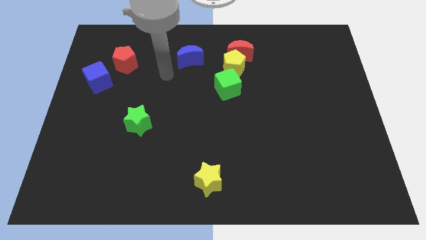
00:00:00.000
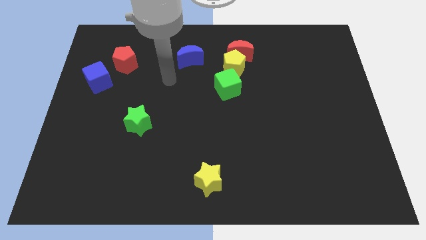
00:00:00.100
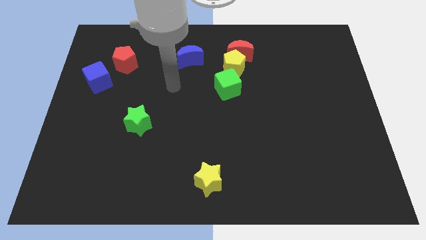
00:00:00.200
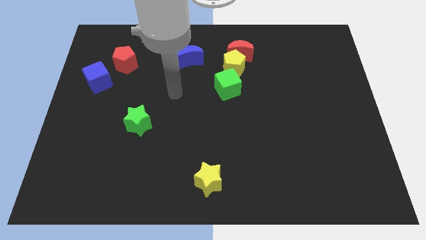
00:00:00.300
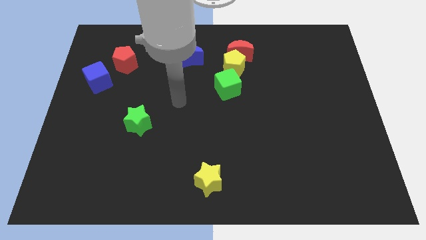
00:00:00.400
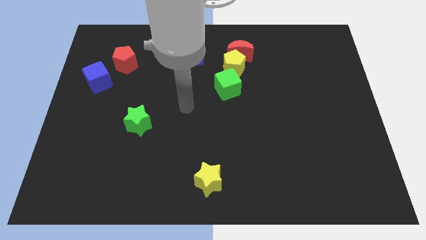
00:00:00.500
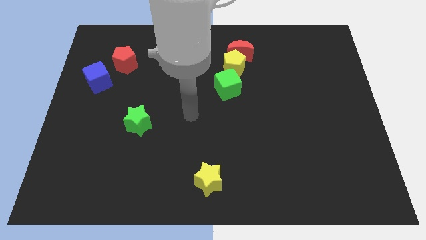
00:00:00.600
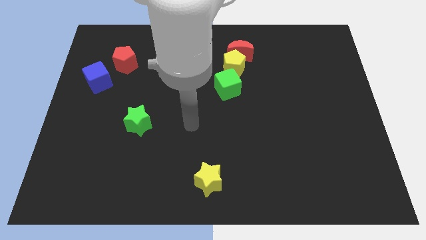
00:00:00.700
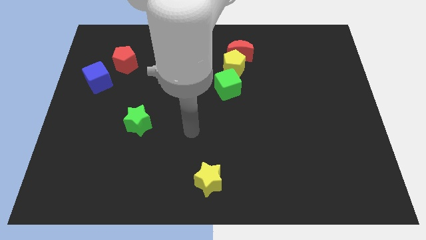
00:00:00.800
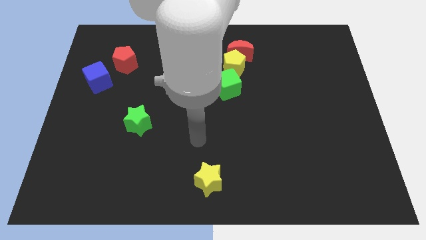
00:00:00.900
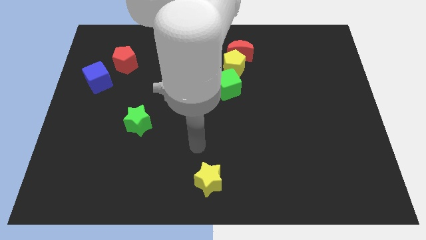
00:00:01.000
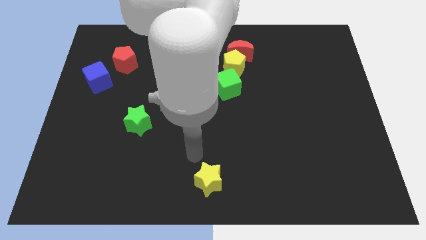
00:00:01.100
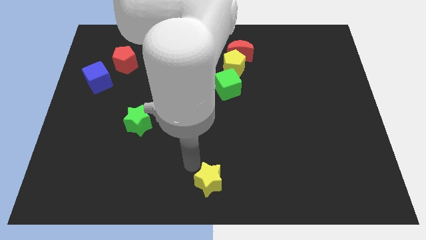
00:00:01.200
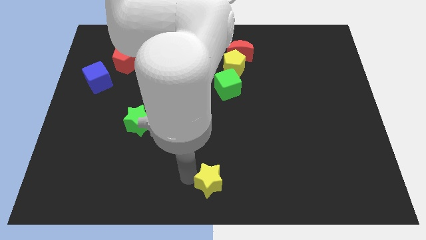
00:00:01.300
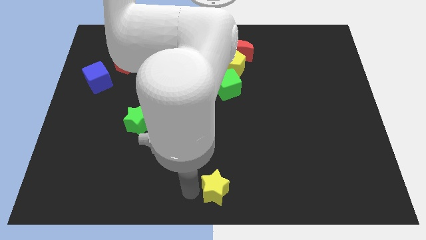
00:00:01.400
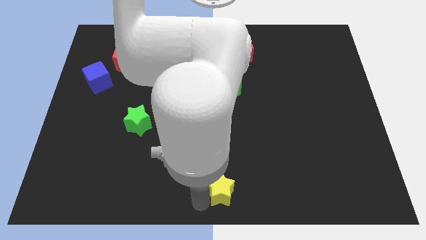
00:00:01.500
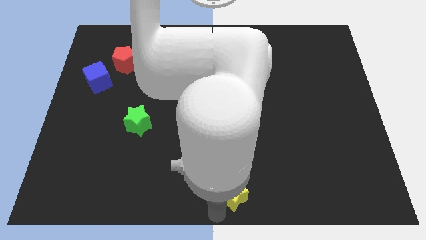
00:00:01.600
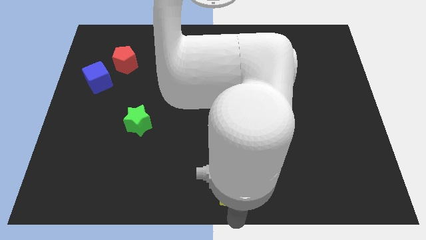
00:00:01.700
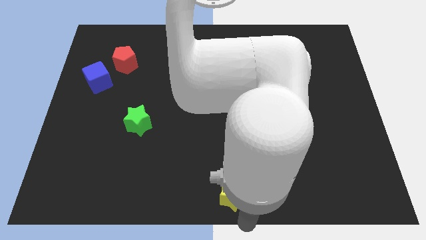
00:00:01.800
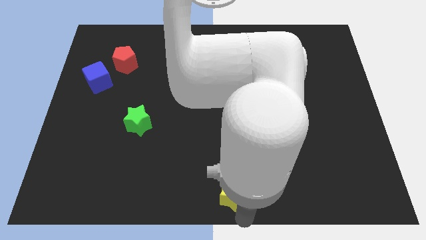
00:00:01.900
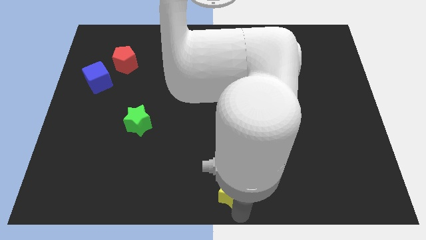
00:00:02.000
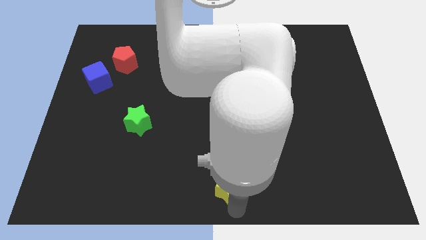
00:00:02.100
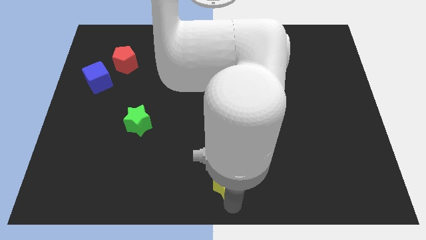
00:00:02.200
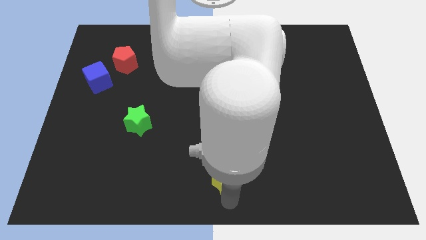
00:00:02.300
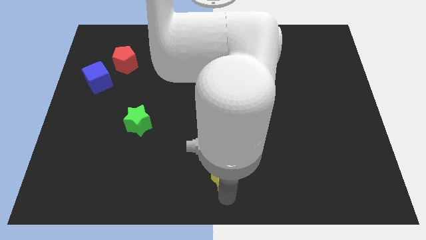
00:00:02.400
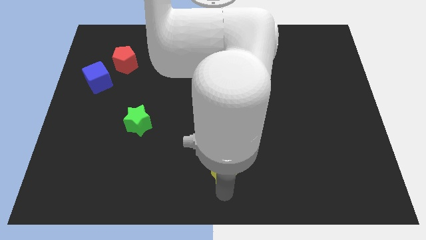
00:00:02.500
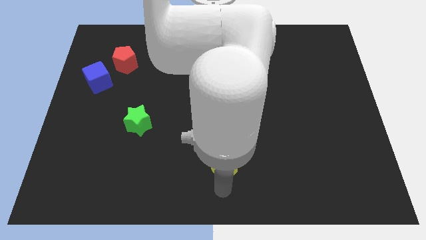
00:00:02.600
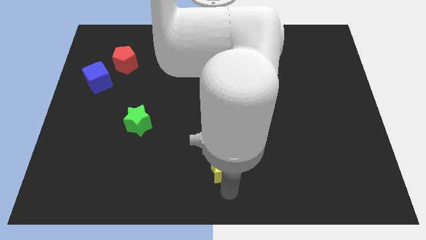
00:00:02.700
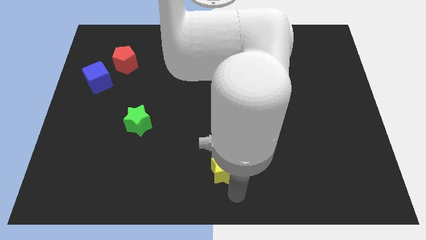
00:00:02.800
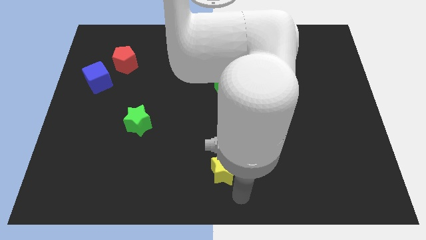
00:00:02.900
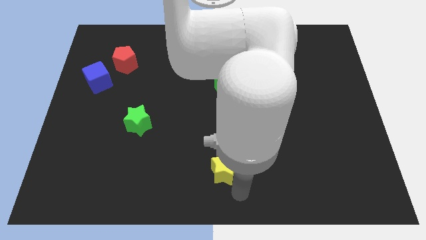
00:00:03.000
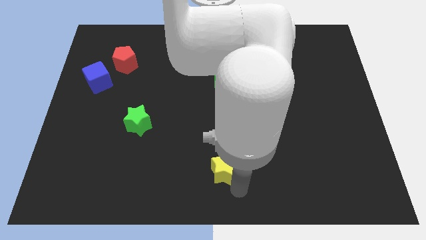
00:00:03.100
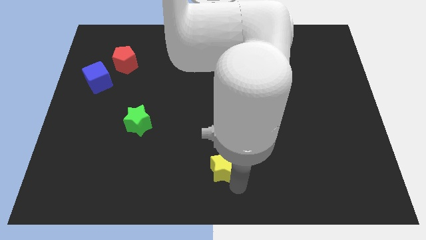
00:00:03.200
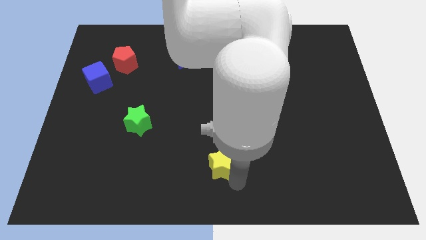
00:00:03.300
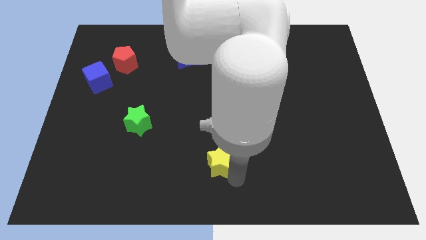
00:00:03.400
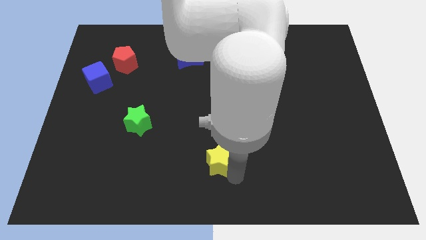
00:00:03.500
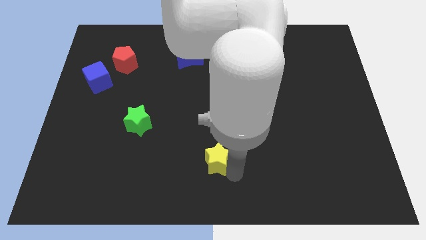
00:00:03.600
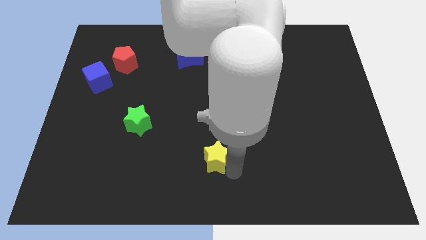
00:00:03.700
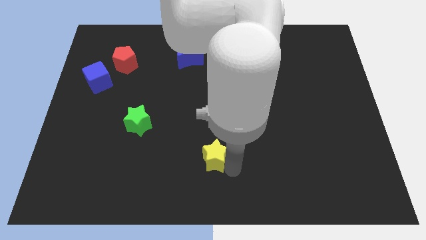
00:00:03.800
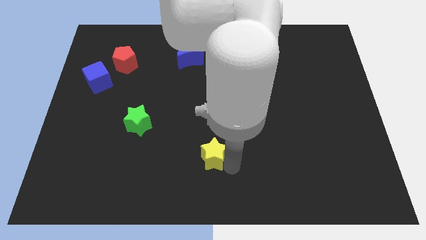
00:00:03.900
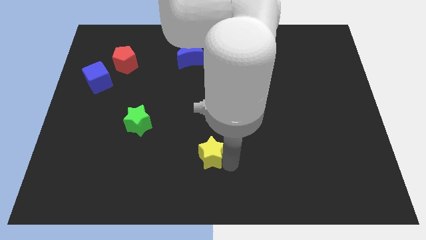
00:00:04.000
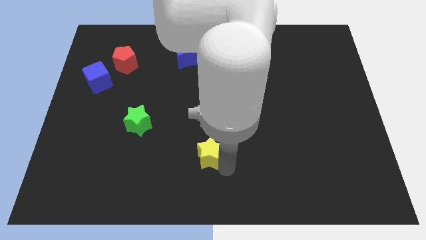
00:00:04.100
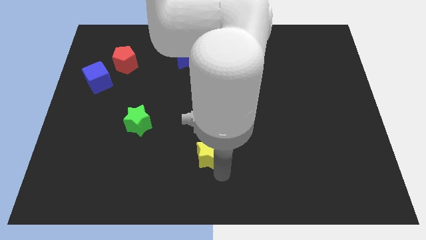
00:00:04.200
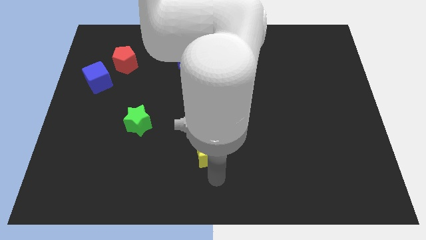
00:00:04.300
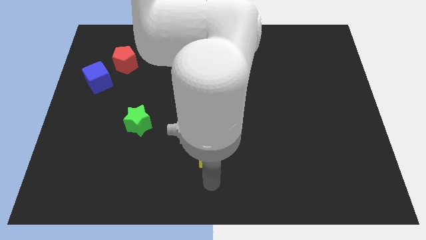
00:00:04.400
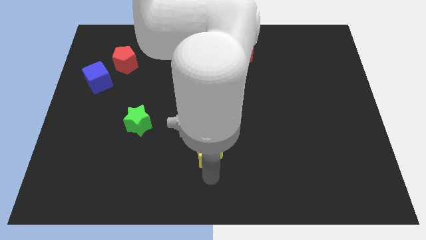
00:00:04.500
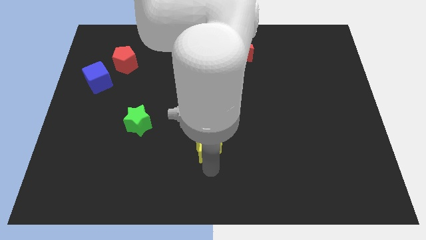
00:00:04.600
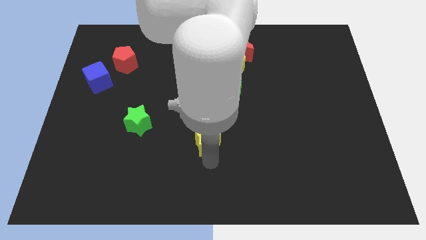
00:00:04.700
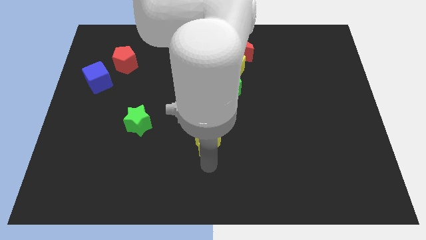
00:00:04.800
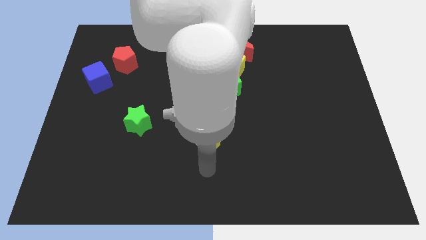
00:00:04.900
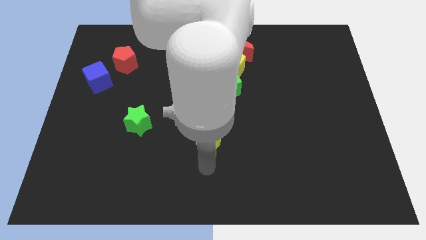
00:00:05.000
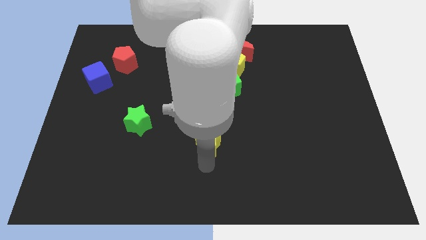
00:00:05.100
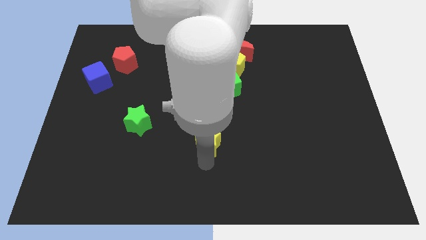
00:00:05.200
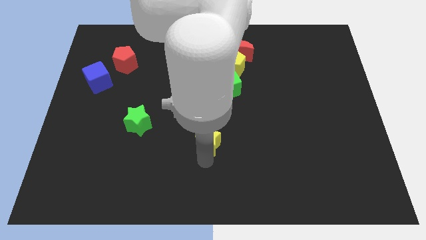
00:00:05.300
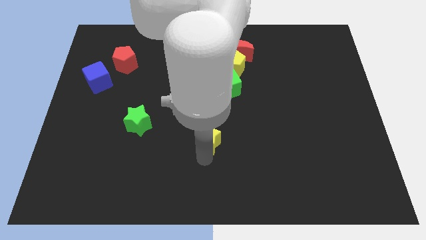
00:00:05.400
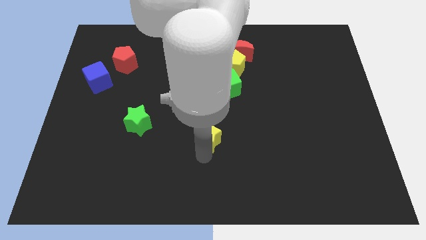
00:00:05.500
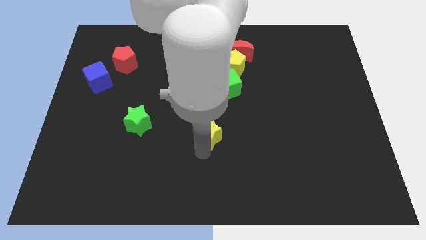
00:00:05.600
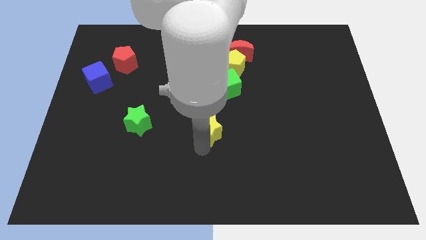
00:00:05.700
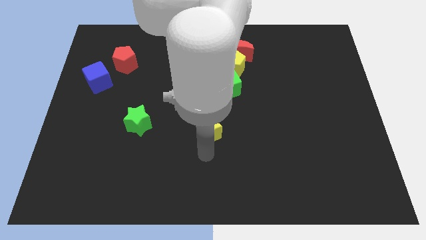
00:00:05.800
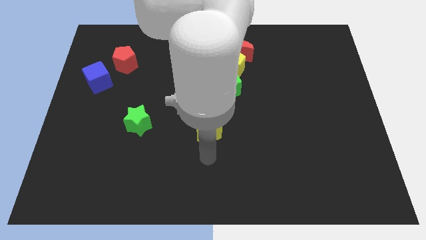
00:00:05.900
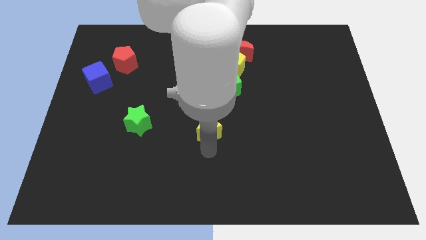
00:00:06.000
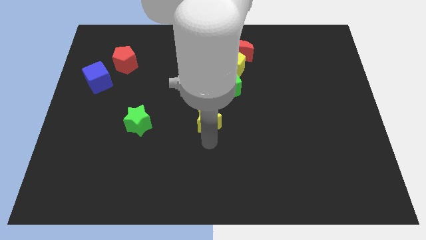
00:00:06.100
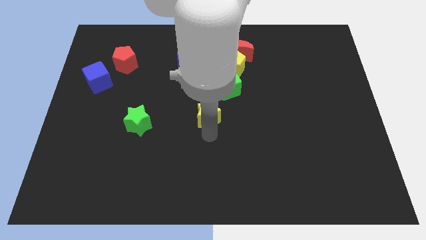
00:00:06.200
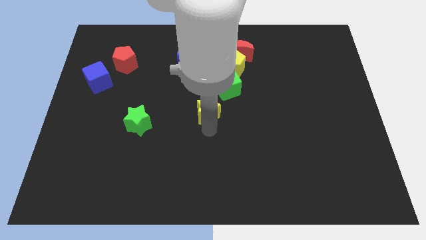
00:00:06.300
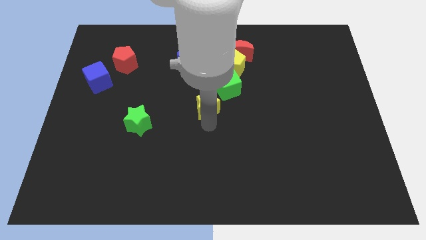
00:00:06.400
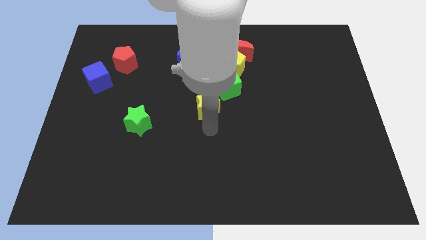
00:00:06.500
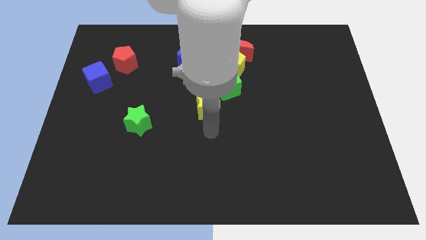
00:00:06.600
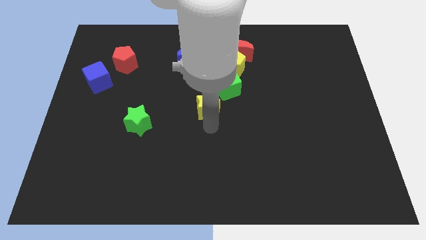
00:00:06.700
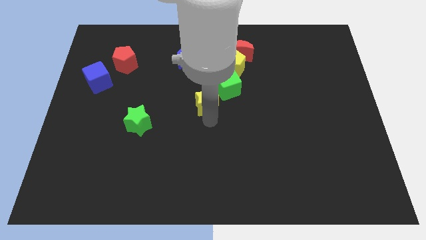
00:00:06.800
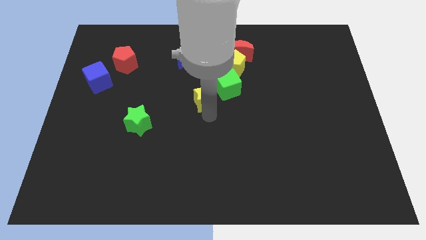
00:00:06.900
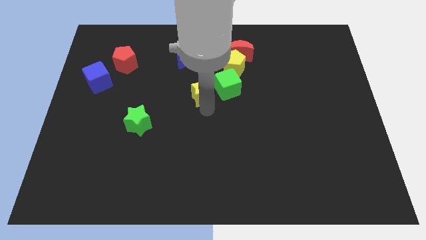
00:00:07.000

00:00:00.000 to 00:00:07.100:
move the yellow star to the bottom left of the yellow pentagon

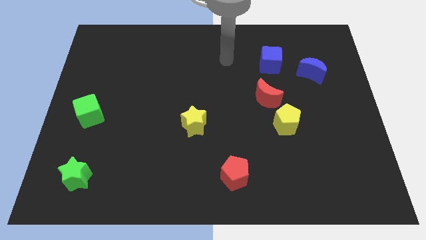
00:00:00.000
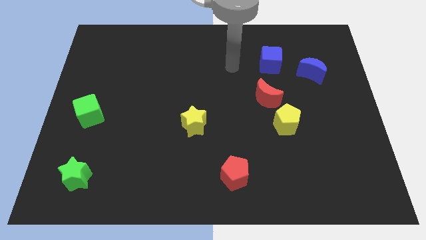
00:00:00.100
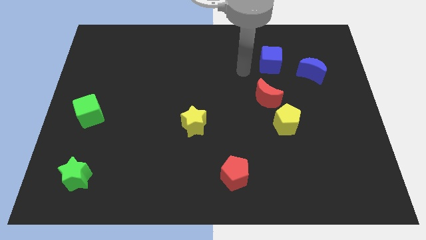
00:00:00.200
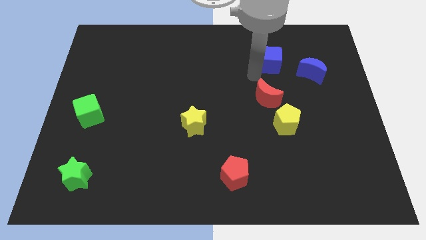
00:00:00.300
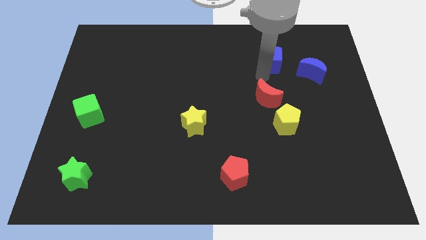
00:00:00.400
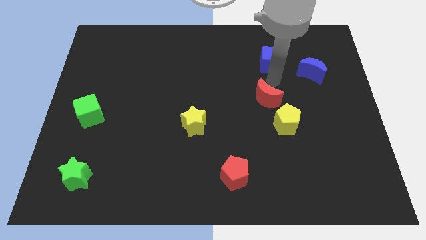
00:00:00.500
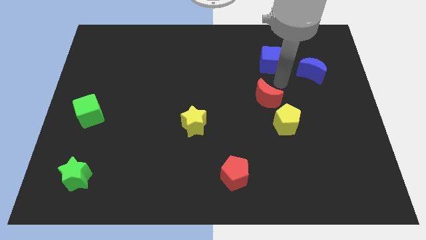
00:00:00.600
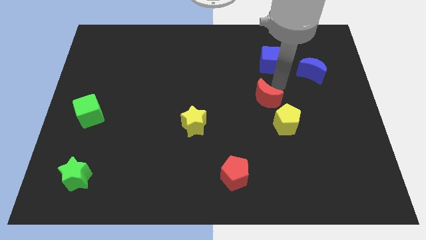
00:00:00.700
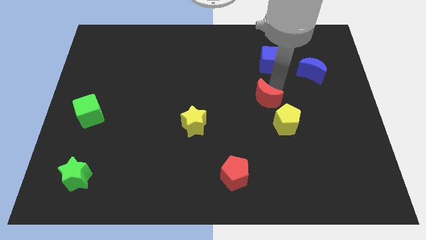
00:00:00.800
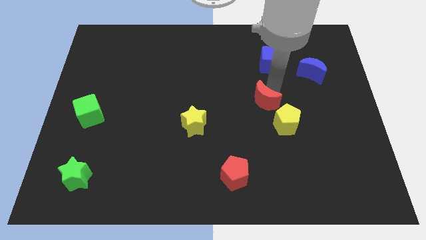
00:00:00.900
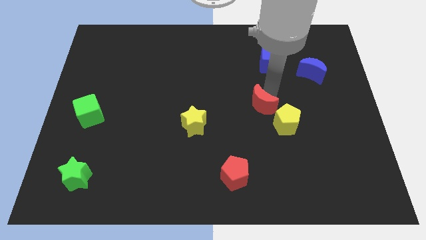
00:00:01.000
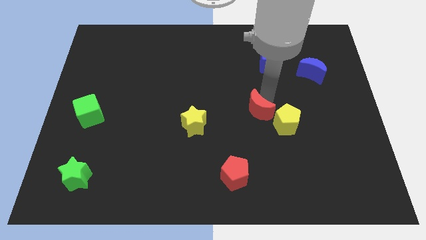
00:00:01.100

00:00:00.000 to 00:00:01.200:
move the red moon left of the yellow pentagon
